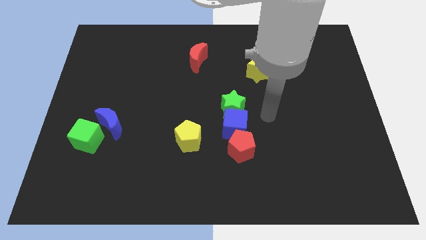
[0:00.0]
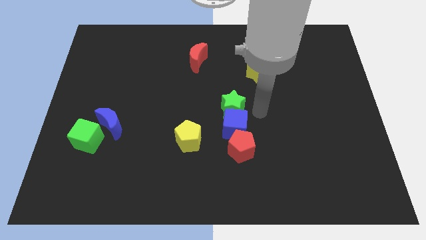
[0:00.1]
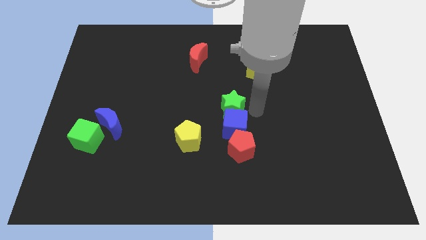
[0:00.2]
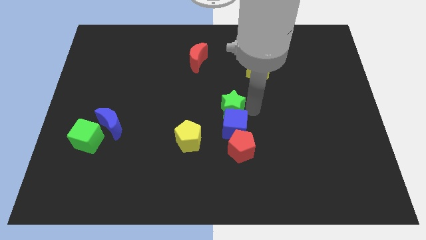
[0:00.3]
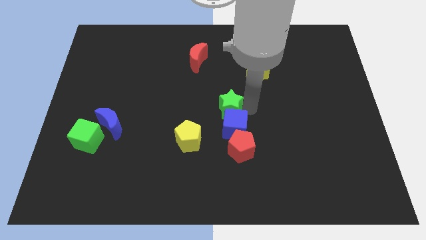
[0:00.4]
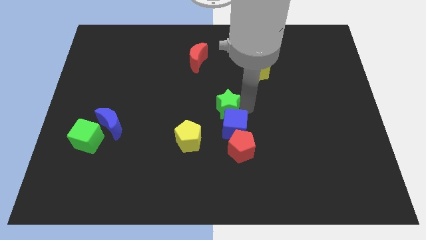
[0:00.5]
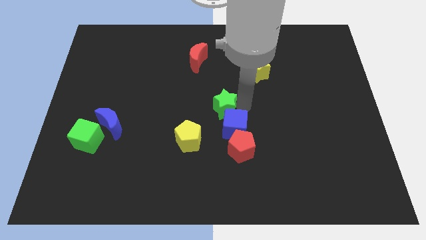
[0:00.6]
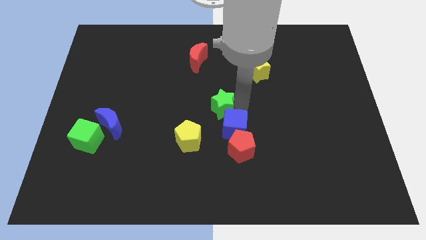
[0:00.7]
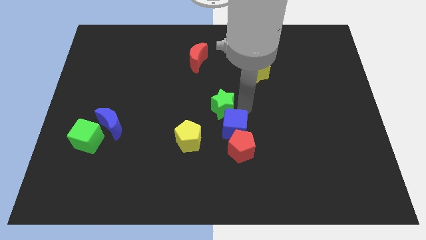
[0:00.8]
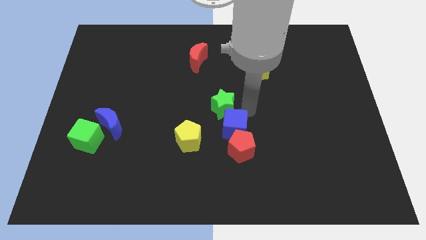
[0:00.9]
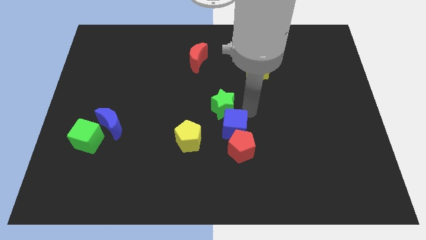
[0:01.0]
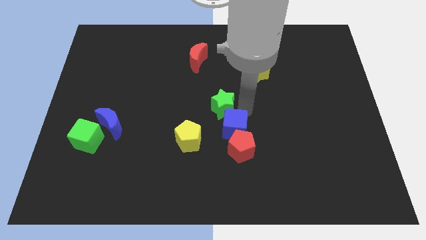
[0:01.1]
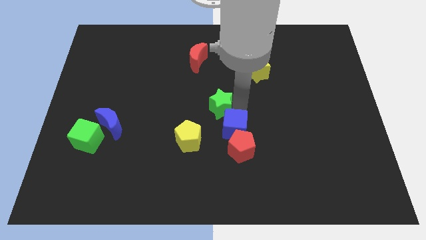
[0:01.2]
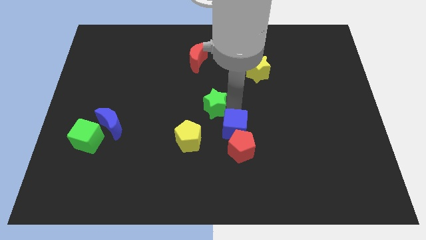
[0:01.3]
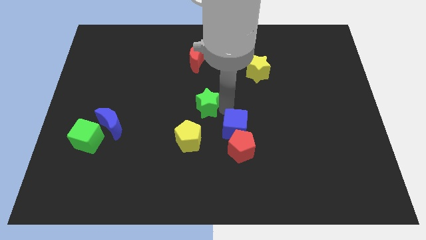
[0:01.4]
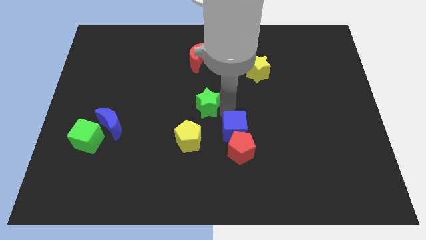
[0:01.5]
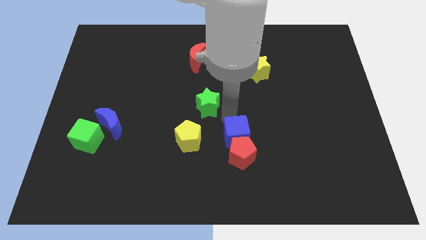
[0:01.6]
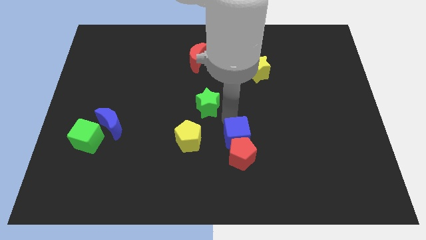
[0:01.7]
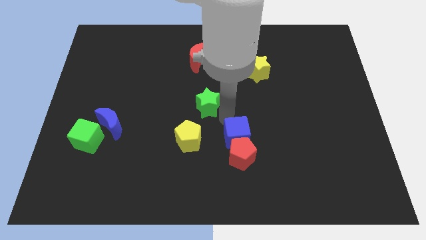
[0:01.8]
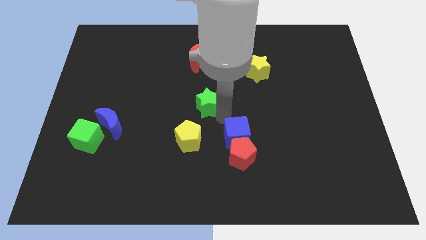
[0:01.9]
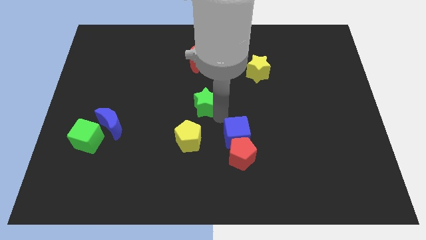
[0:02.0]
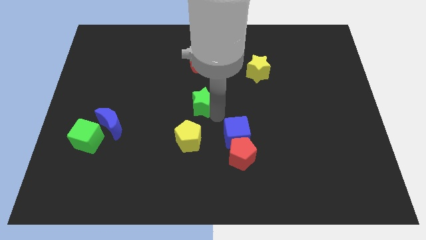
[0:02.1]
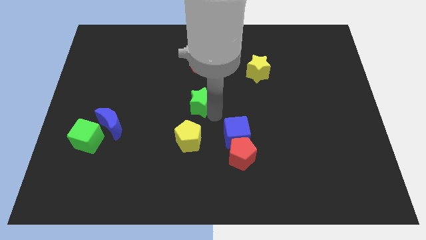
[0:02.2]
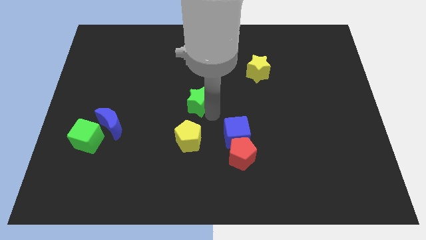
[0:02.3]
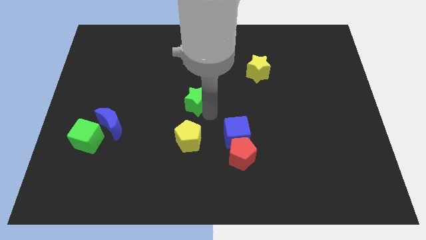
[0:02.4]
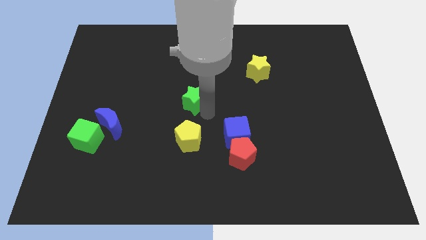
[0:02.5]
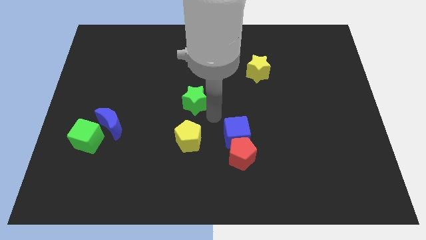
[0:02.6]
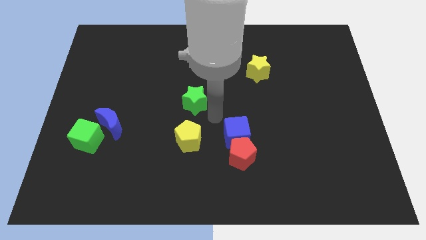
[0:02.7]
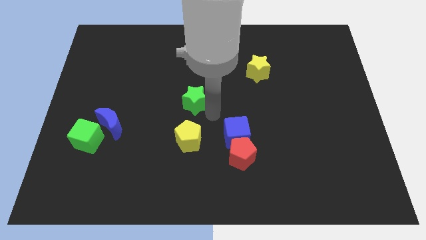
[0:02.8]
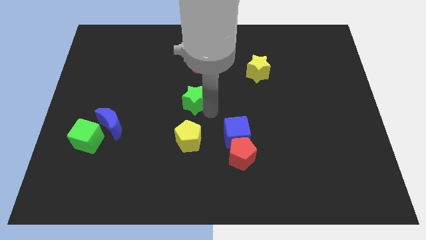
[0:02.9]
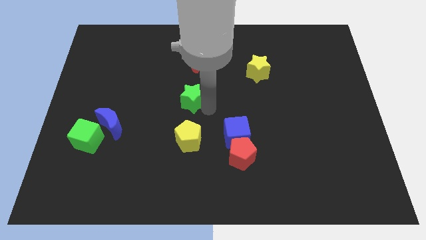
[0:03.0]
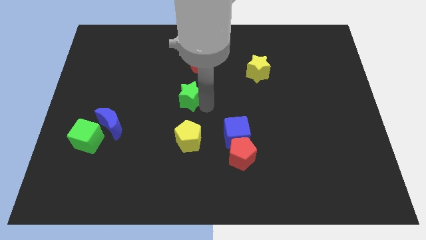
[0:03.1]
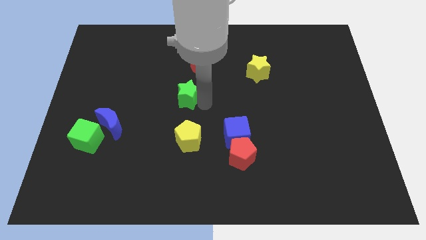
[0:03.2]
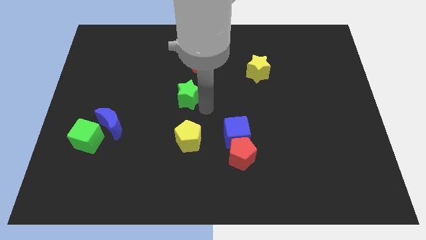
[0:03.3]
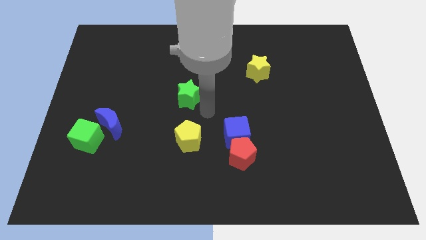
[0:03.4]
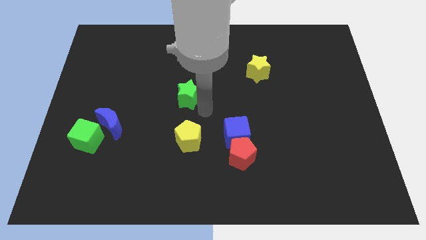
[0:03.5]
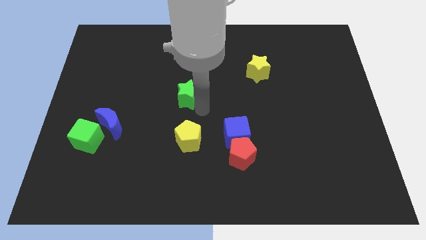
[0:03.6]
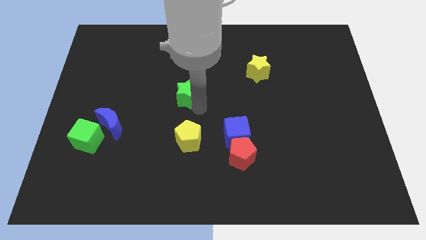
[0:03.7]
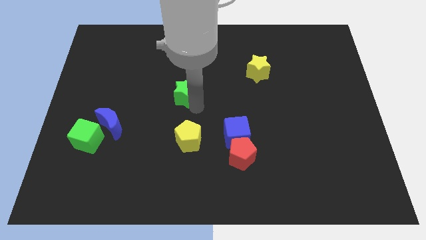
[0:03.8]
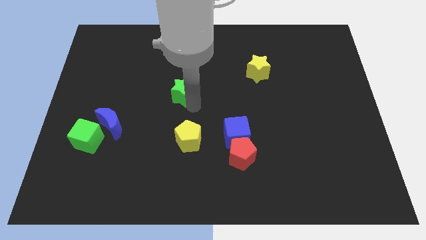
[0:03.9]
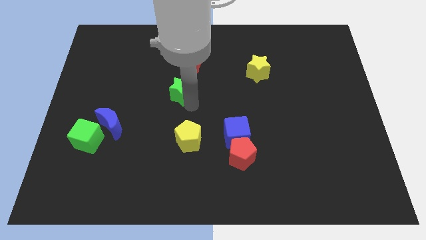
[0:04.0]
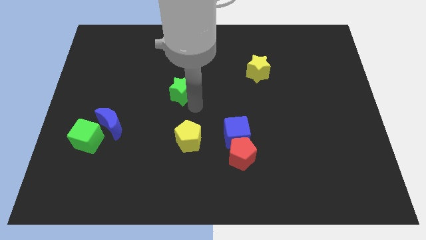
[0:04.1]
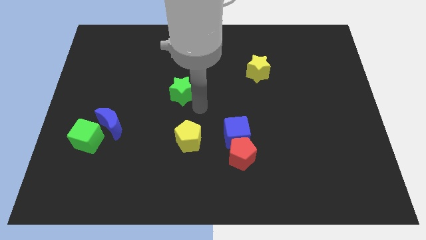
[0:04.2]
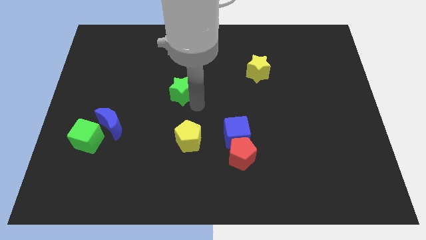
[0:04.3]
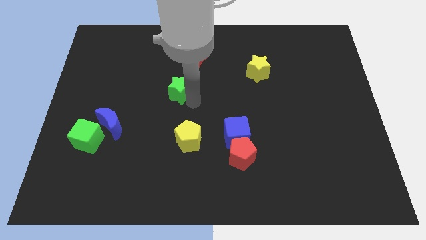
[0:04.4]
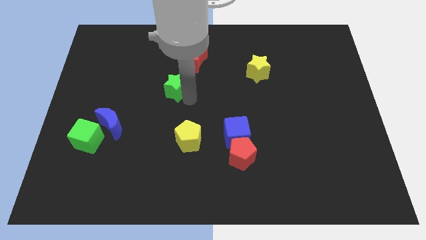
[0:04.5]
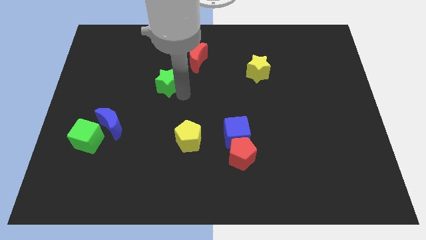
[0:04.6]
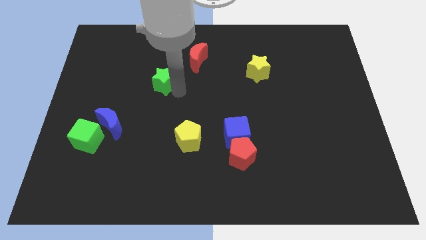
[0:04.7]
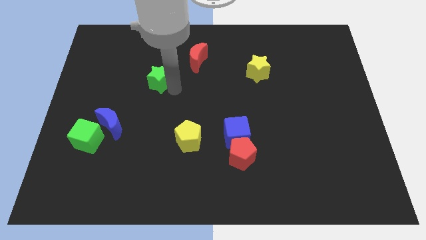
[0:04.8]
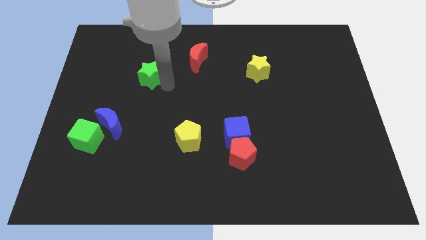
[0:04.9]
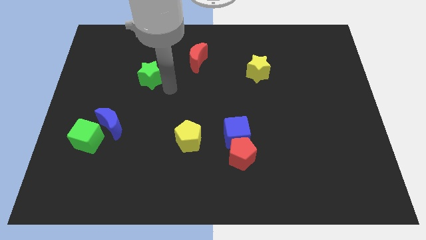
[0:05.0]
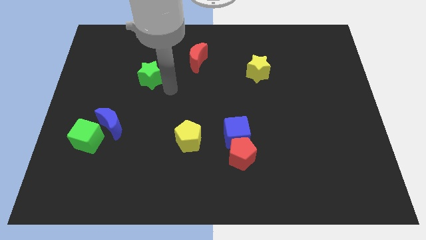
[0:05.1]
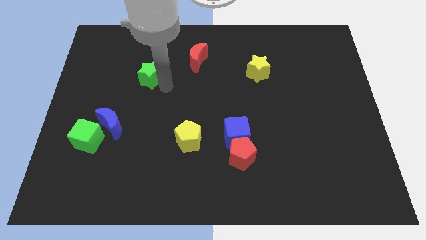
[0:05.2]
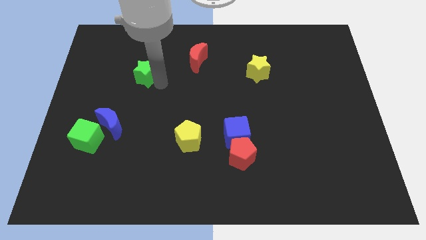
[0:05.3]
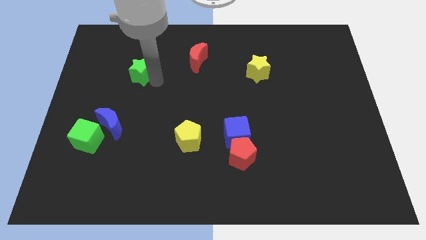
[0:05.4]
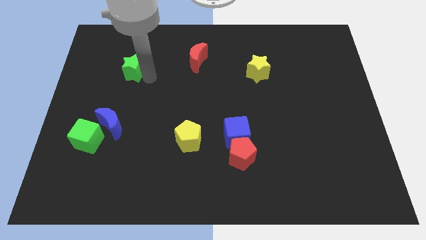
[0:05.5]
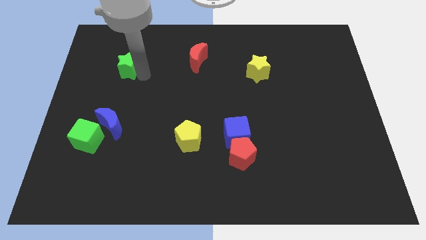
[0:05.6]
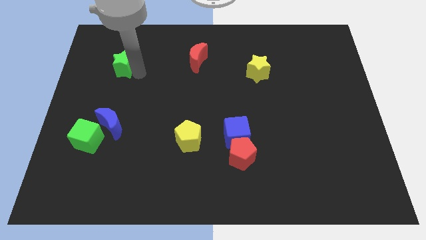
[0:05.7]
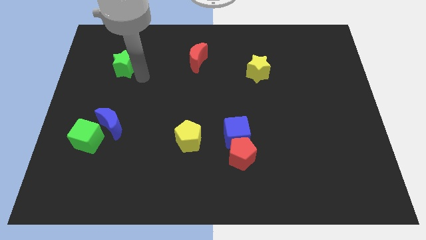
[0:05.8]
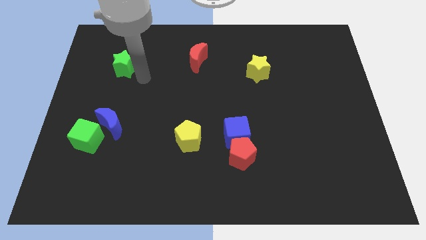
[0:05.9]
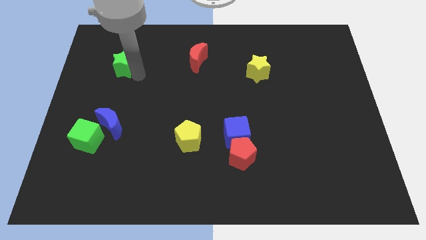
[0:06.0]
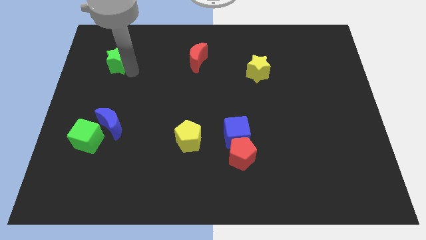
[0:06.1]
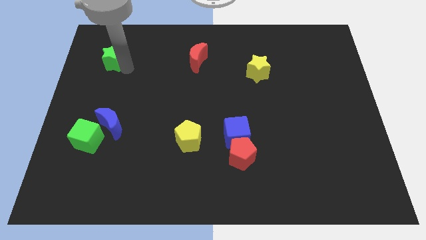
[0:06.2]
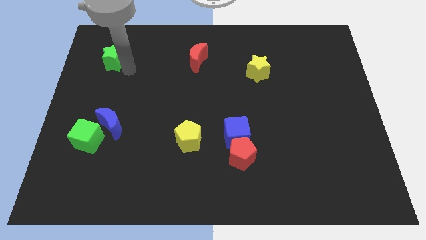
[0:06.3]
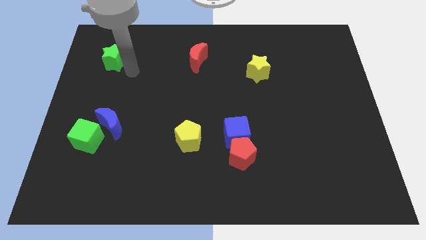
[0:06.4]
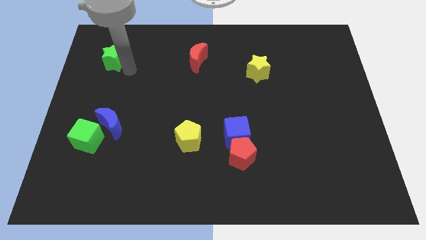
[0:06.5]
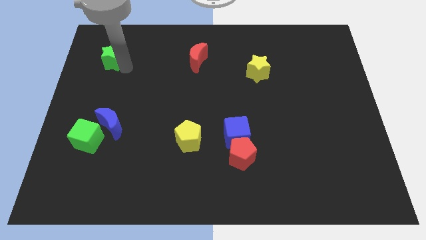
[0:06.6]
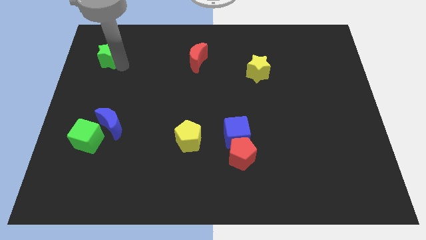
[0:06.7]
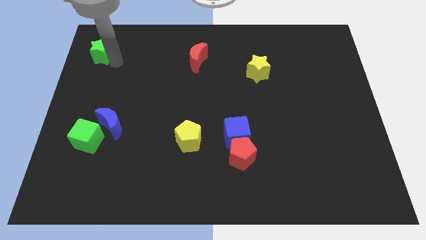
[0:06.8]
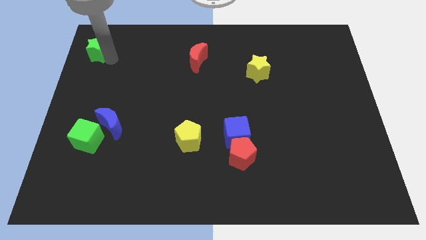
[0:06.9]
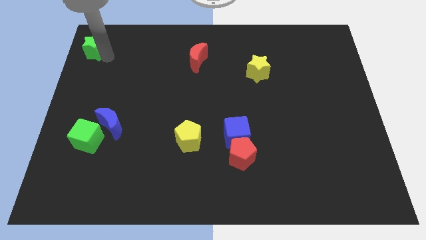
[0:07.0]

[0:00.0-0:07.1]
push the green star to the top left corner
